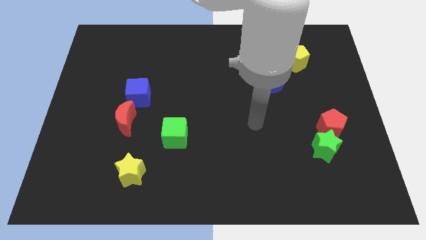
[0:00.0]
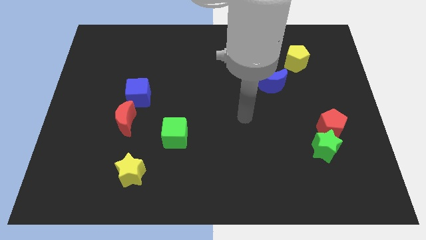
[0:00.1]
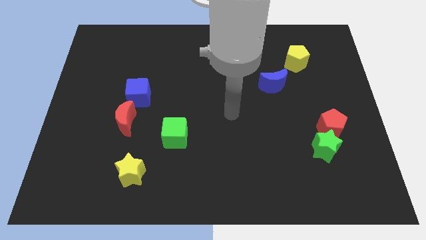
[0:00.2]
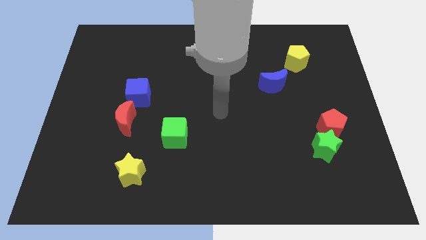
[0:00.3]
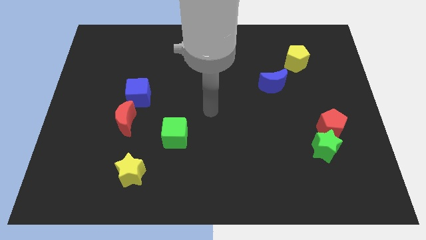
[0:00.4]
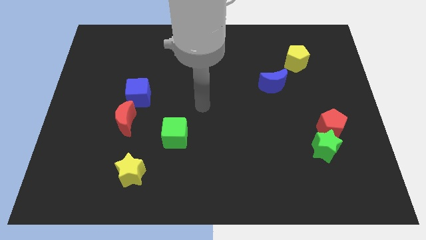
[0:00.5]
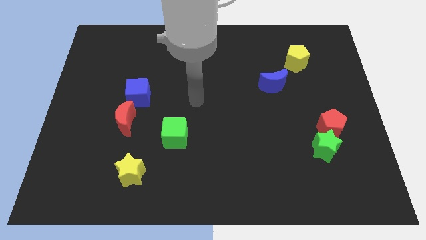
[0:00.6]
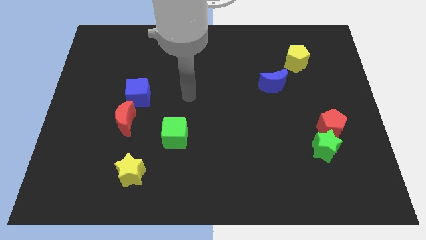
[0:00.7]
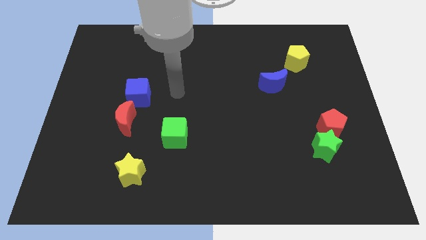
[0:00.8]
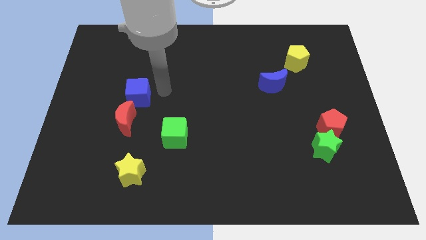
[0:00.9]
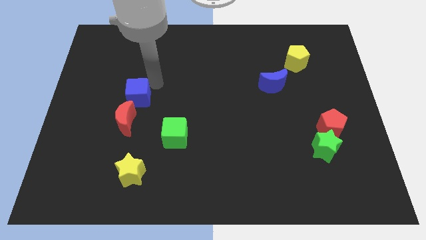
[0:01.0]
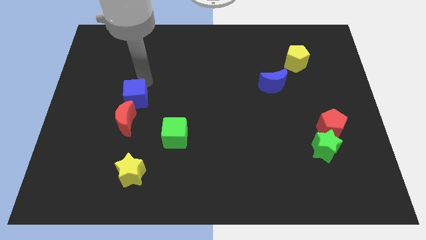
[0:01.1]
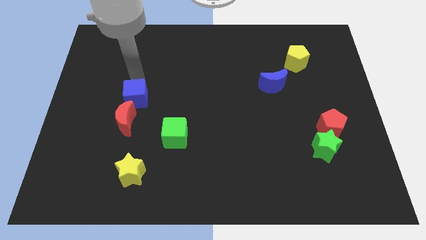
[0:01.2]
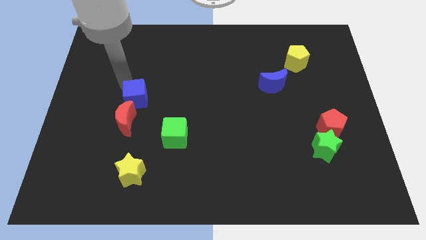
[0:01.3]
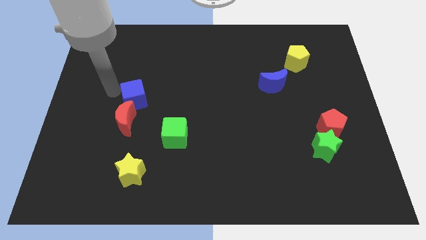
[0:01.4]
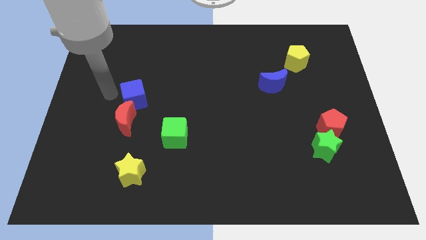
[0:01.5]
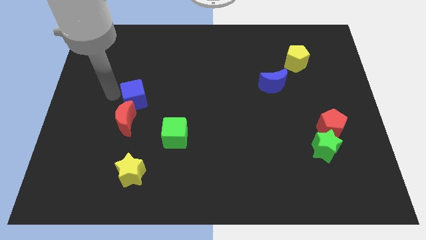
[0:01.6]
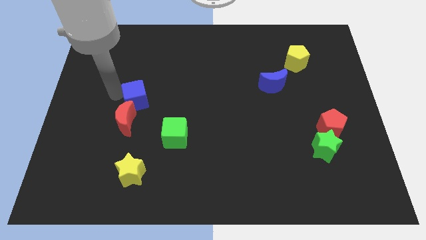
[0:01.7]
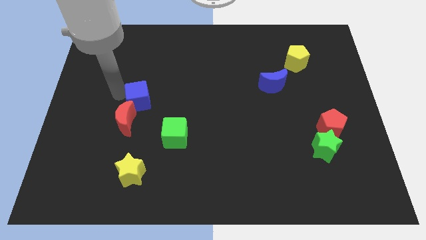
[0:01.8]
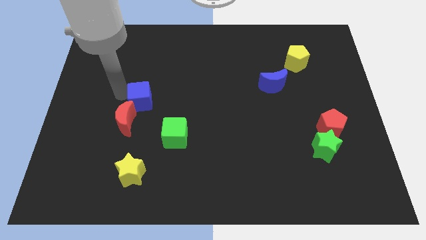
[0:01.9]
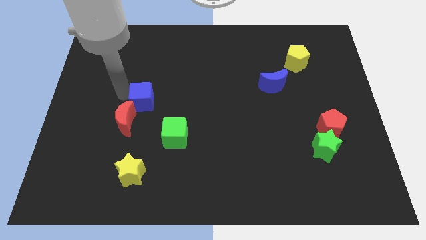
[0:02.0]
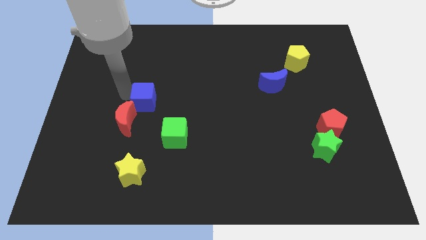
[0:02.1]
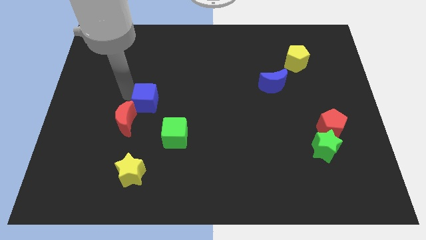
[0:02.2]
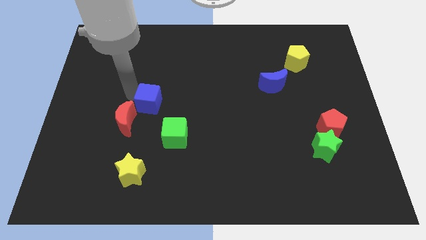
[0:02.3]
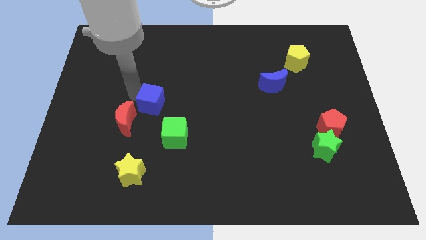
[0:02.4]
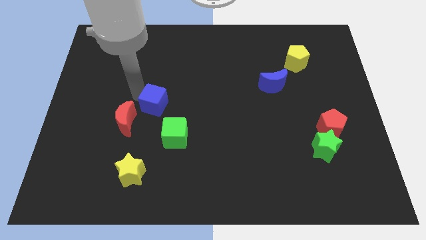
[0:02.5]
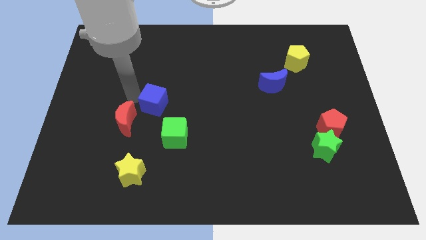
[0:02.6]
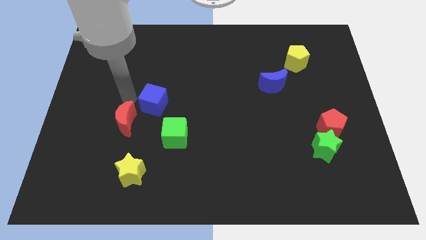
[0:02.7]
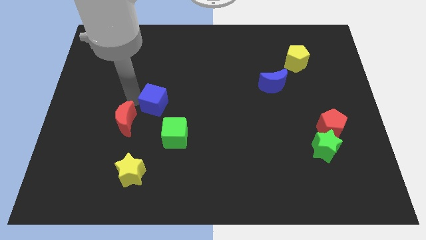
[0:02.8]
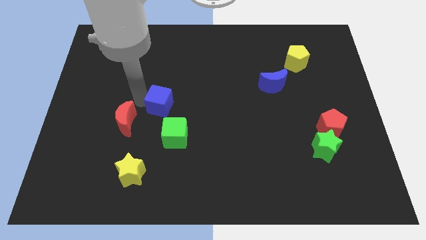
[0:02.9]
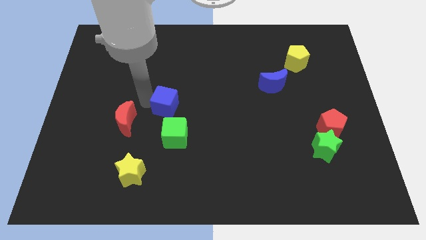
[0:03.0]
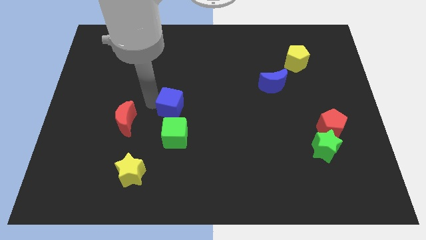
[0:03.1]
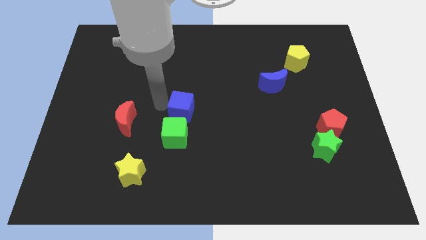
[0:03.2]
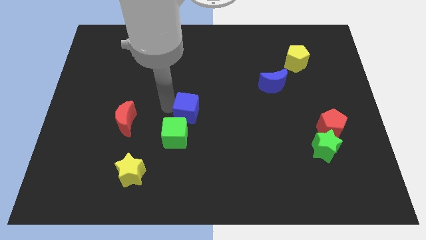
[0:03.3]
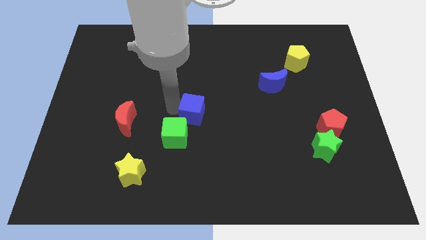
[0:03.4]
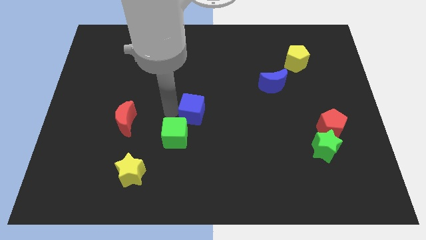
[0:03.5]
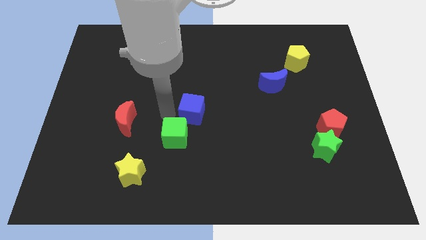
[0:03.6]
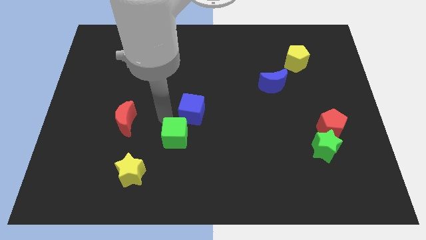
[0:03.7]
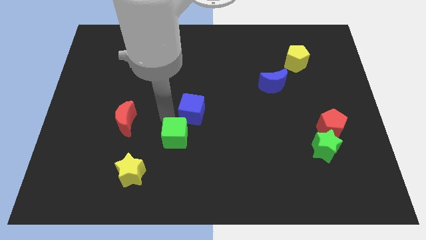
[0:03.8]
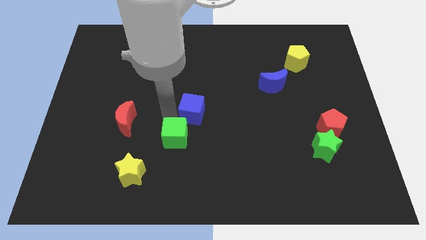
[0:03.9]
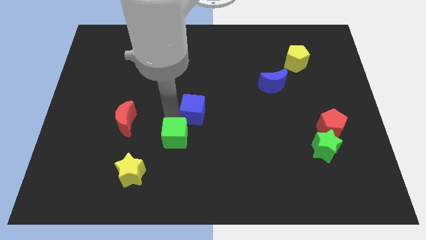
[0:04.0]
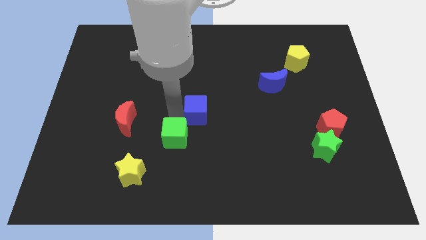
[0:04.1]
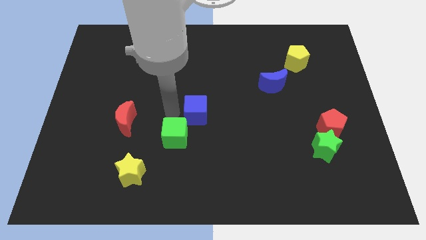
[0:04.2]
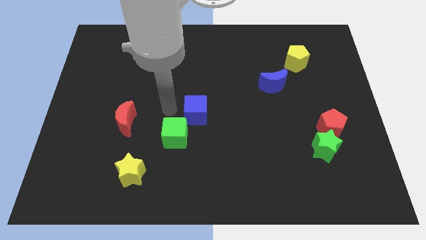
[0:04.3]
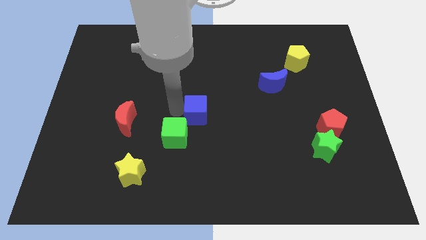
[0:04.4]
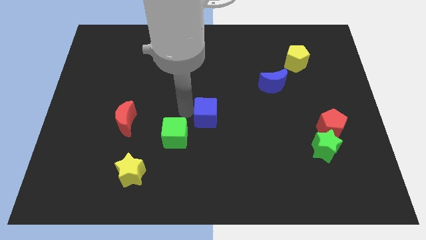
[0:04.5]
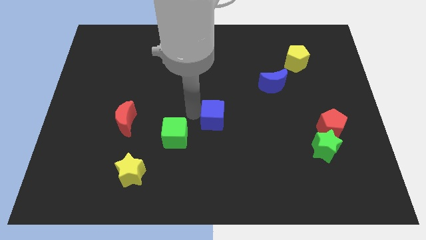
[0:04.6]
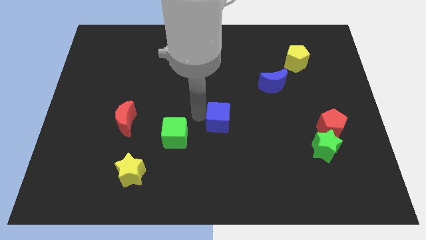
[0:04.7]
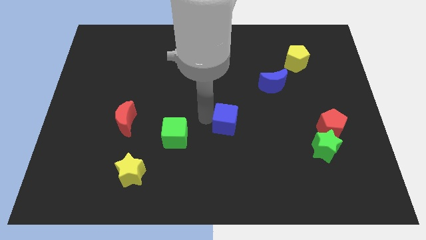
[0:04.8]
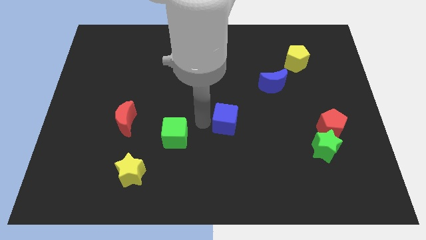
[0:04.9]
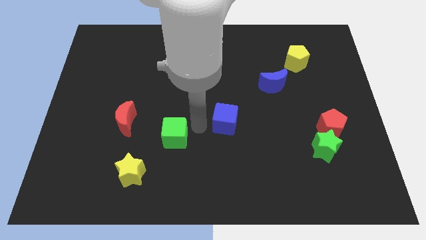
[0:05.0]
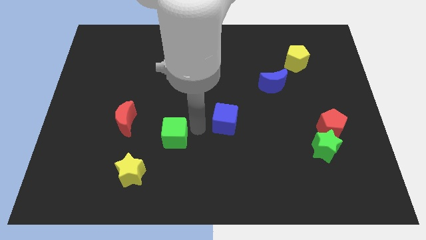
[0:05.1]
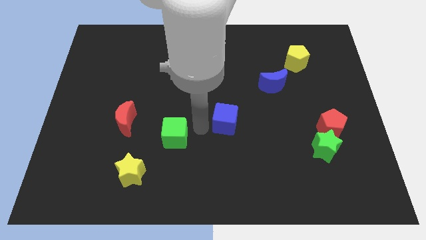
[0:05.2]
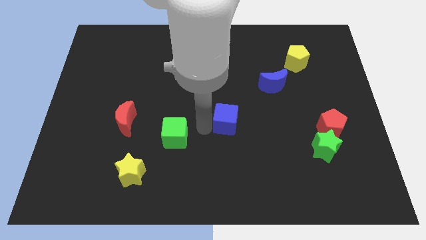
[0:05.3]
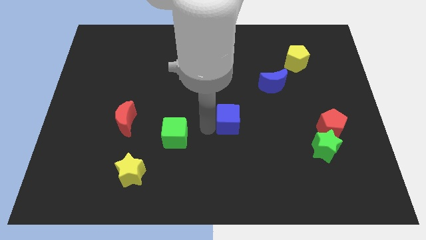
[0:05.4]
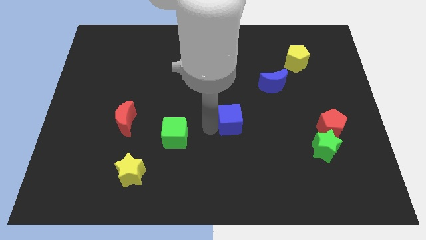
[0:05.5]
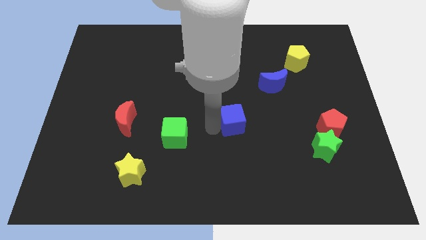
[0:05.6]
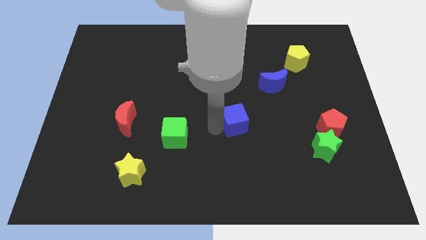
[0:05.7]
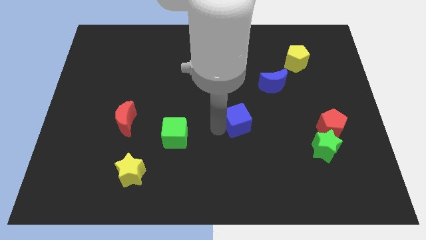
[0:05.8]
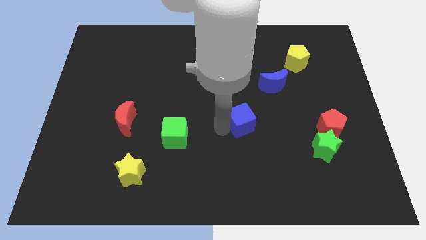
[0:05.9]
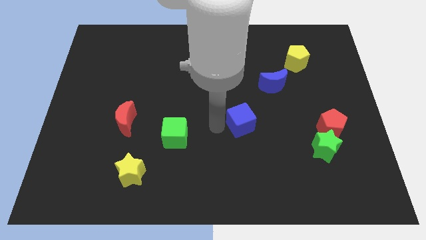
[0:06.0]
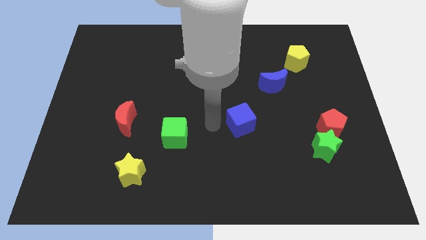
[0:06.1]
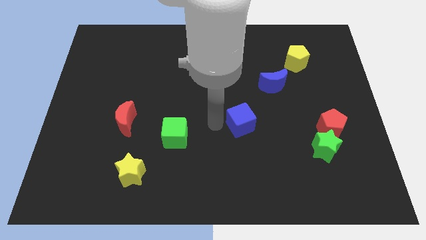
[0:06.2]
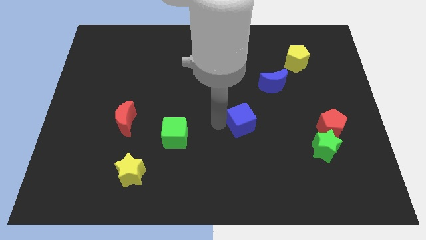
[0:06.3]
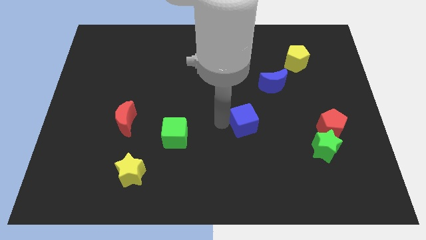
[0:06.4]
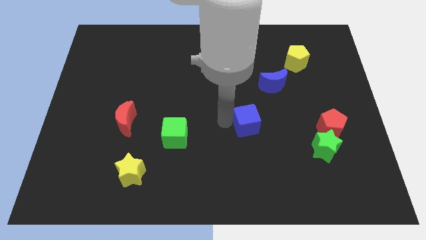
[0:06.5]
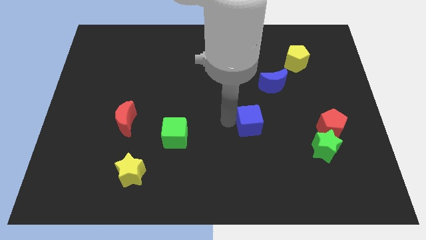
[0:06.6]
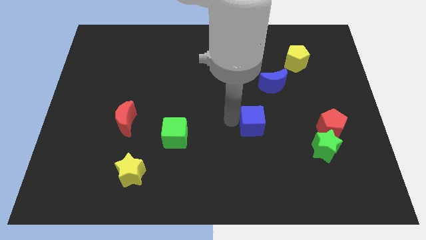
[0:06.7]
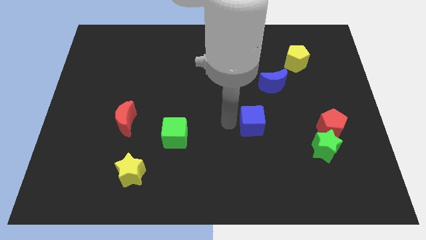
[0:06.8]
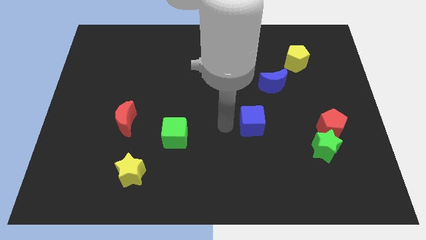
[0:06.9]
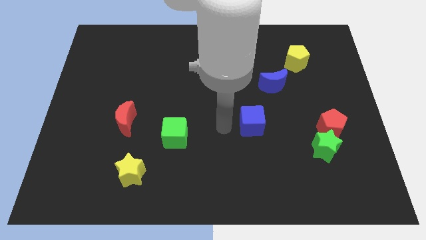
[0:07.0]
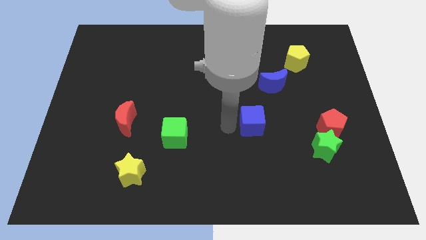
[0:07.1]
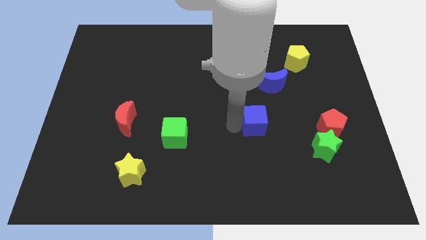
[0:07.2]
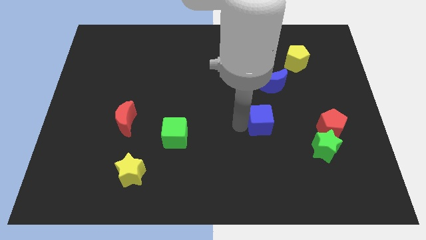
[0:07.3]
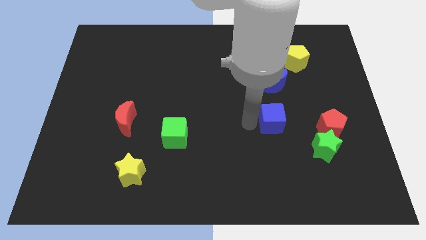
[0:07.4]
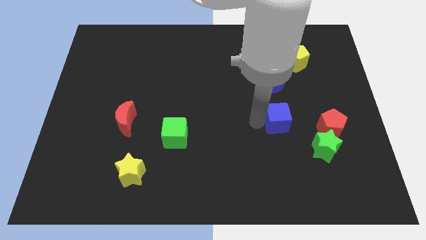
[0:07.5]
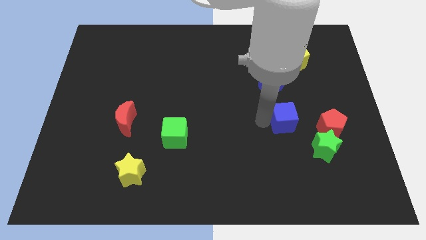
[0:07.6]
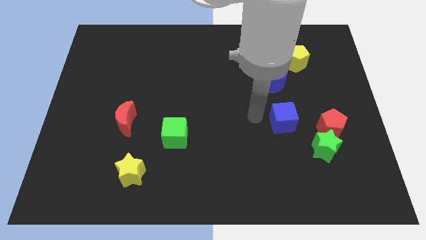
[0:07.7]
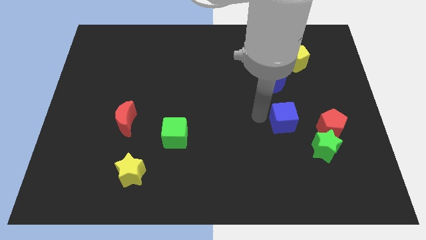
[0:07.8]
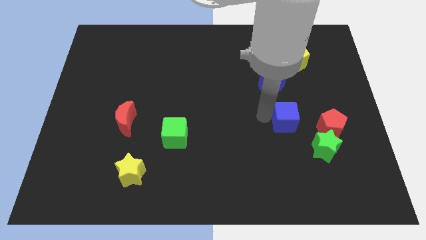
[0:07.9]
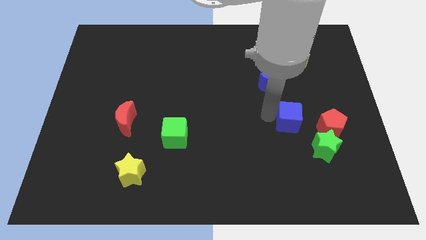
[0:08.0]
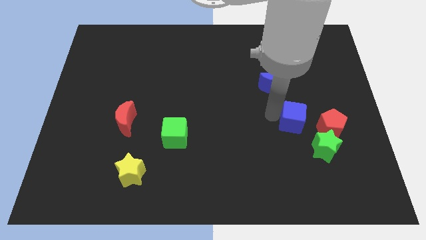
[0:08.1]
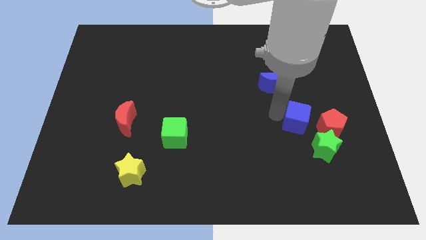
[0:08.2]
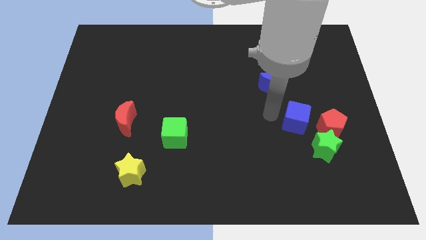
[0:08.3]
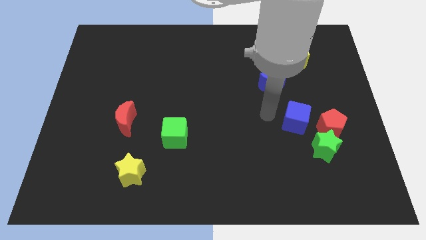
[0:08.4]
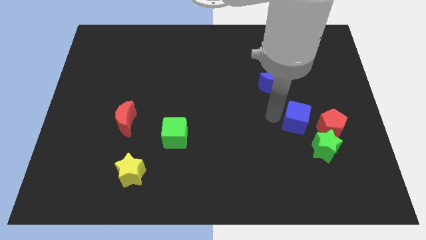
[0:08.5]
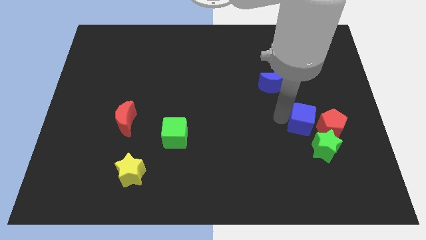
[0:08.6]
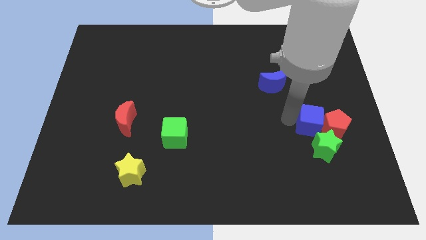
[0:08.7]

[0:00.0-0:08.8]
push the blue cube close to the red pentagon
